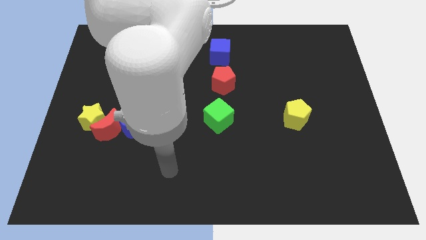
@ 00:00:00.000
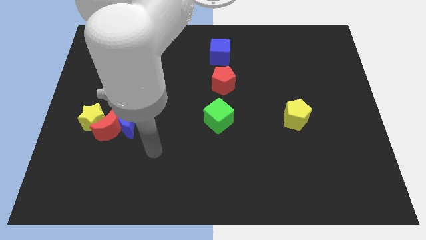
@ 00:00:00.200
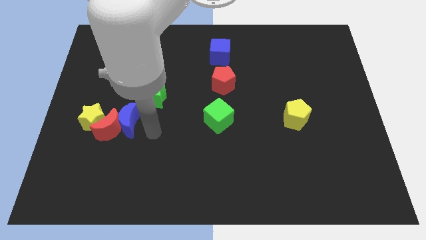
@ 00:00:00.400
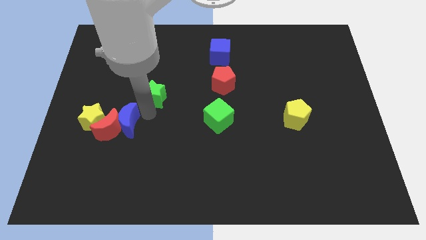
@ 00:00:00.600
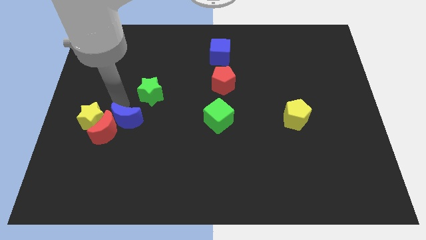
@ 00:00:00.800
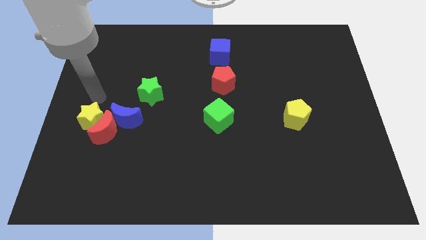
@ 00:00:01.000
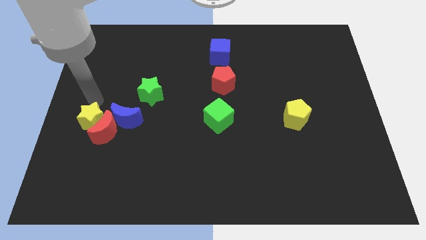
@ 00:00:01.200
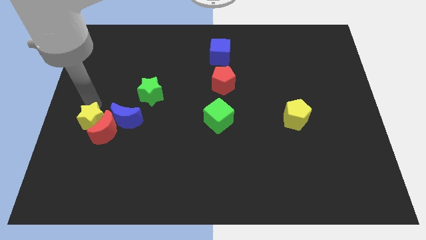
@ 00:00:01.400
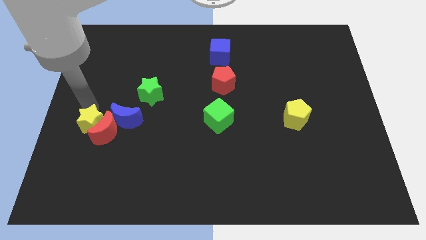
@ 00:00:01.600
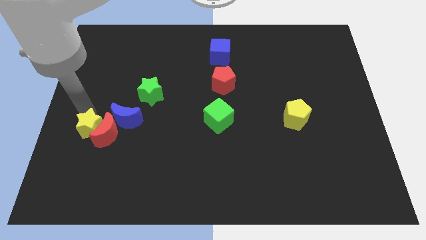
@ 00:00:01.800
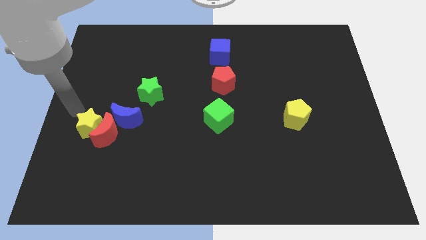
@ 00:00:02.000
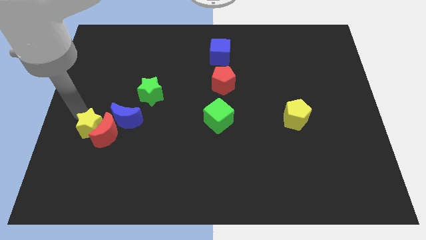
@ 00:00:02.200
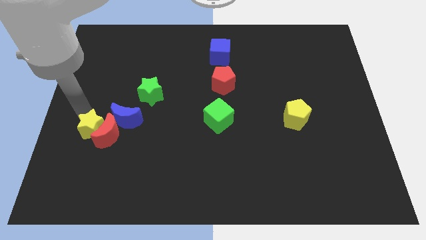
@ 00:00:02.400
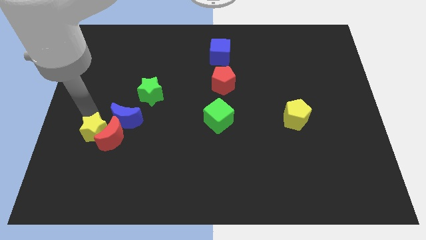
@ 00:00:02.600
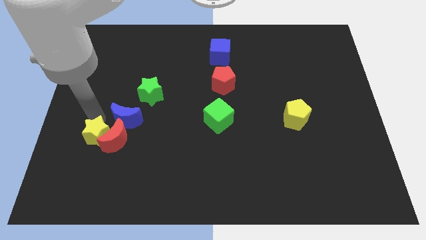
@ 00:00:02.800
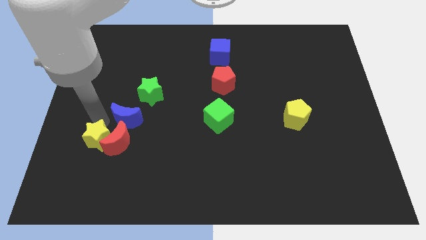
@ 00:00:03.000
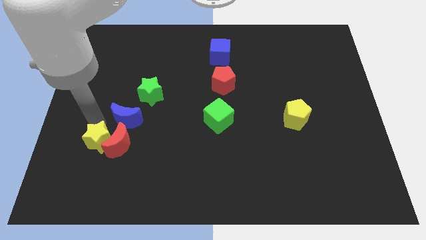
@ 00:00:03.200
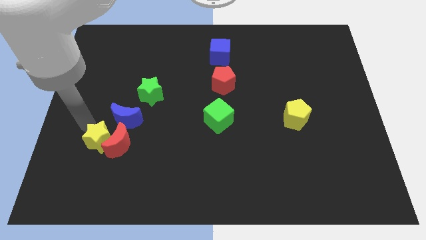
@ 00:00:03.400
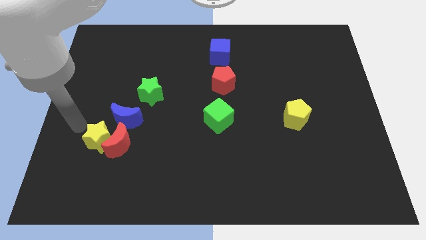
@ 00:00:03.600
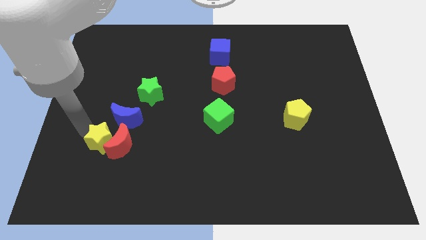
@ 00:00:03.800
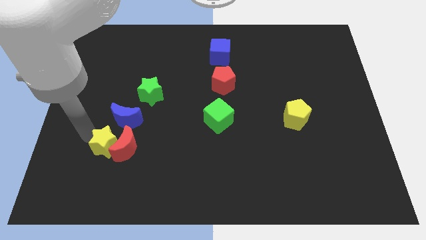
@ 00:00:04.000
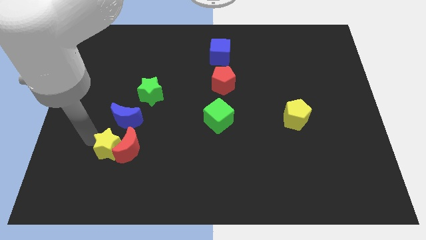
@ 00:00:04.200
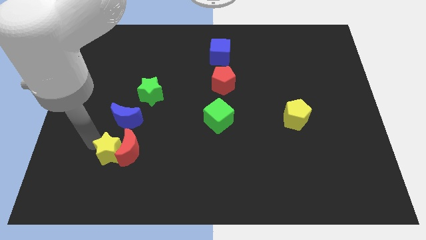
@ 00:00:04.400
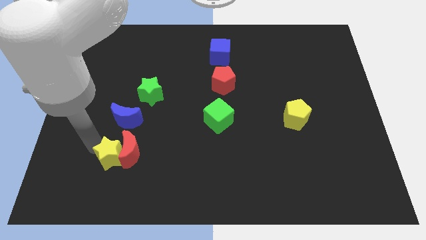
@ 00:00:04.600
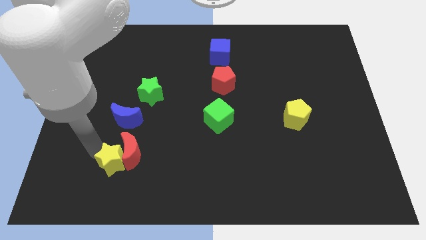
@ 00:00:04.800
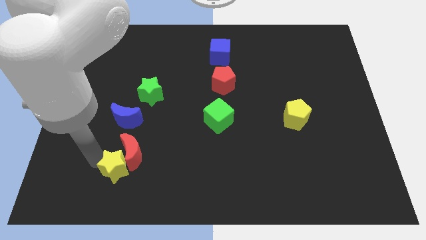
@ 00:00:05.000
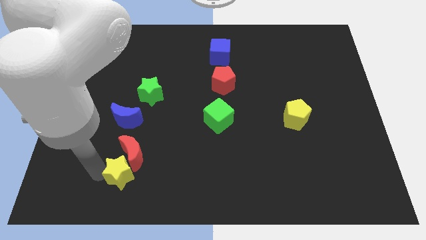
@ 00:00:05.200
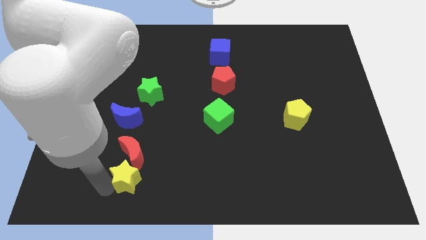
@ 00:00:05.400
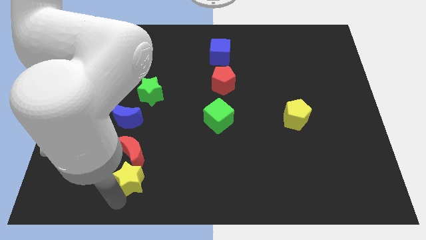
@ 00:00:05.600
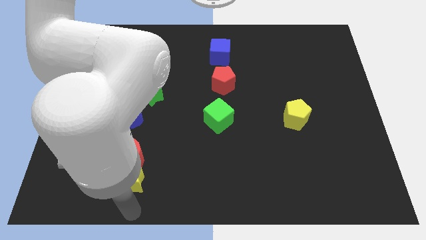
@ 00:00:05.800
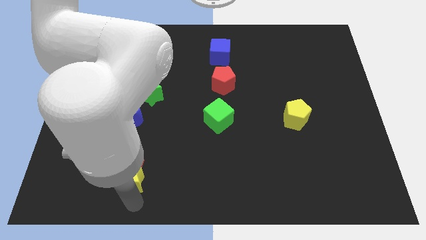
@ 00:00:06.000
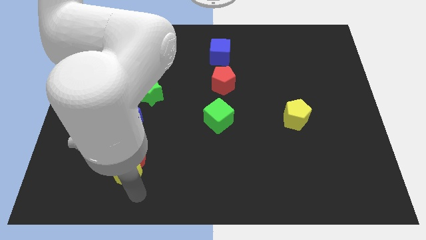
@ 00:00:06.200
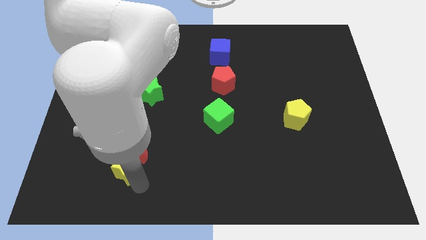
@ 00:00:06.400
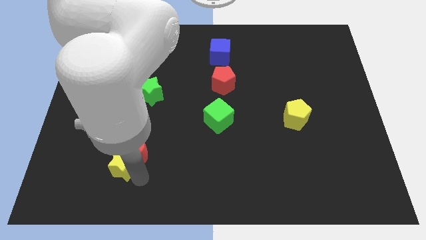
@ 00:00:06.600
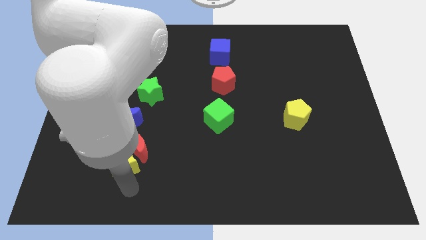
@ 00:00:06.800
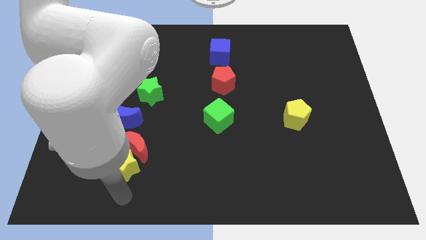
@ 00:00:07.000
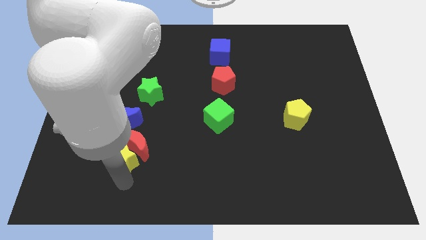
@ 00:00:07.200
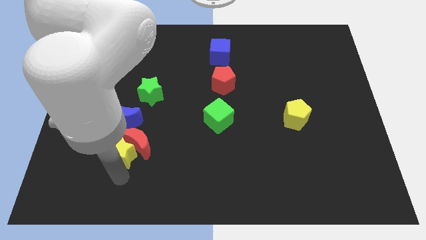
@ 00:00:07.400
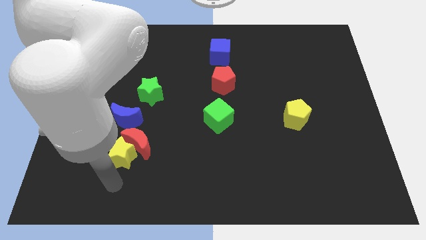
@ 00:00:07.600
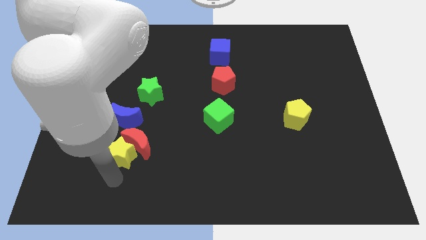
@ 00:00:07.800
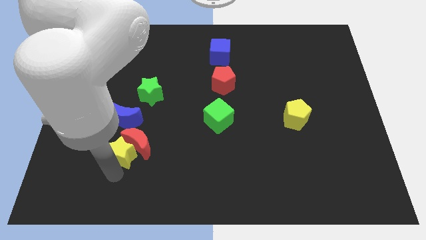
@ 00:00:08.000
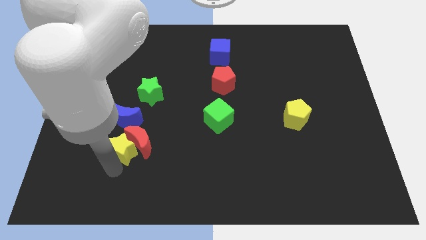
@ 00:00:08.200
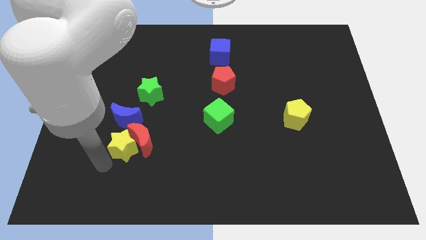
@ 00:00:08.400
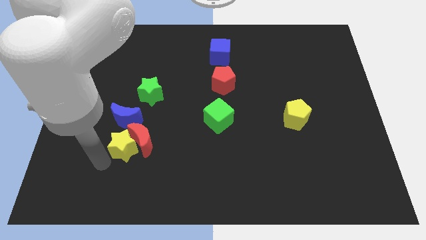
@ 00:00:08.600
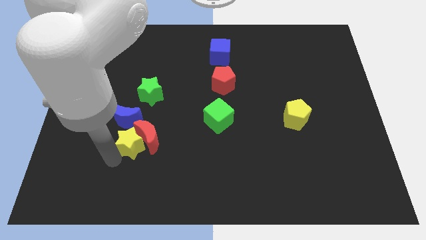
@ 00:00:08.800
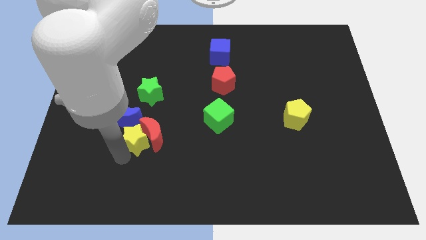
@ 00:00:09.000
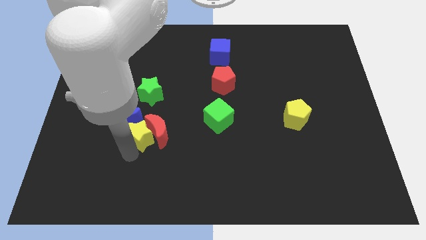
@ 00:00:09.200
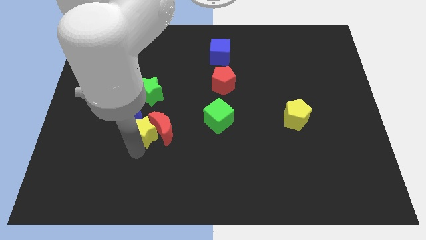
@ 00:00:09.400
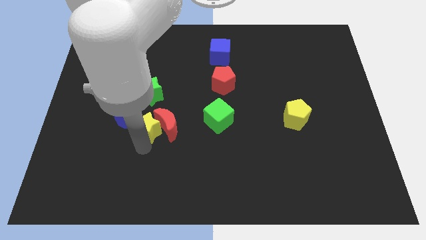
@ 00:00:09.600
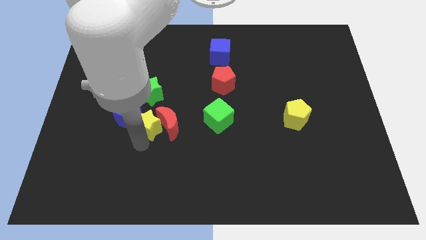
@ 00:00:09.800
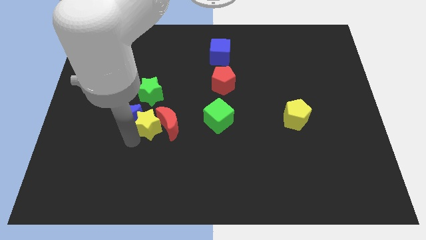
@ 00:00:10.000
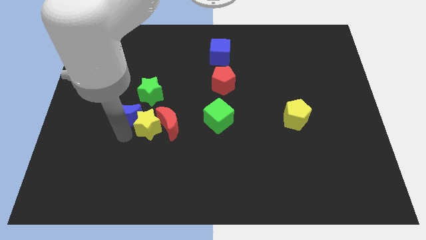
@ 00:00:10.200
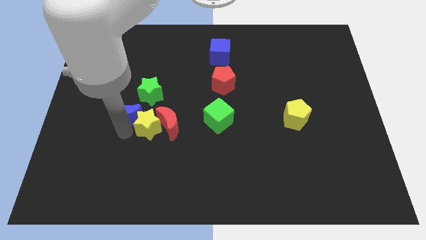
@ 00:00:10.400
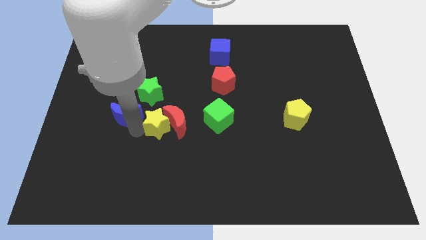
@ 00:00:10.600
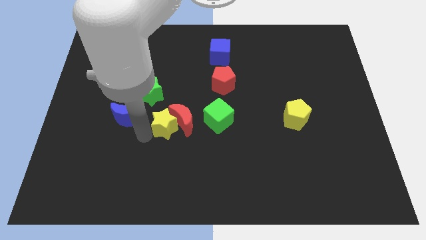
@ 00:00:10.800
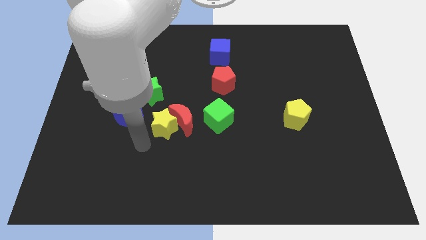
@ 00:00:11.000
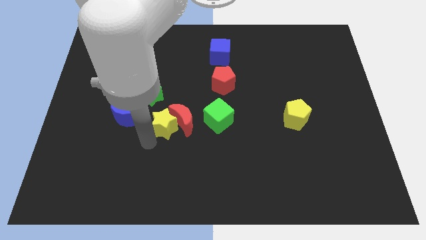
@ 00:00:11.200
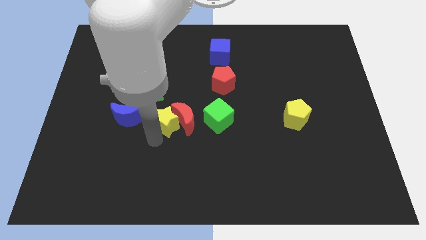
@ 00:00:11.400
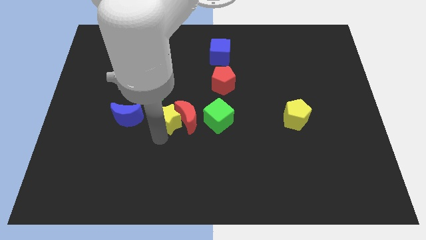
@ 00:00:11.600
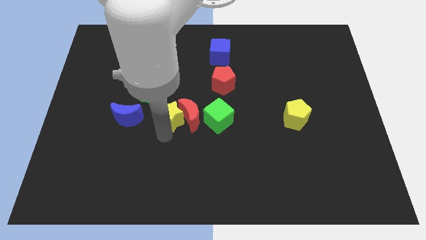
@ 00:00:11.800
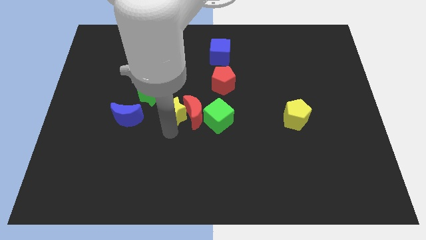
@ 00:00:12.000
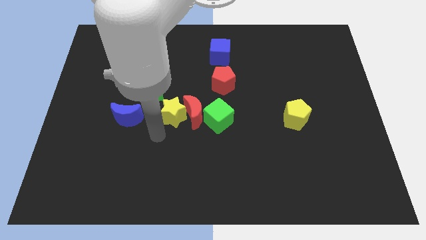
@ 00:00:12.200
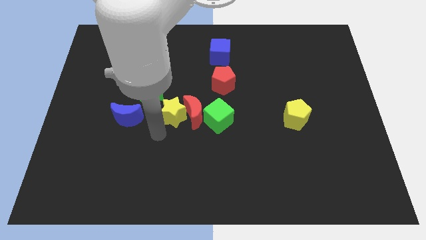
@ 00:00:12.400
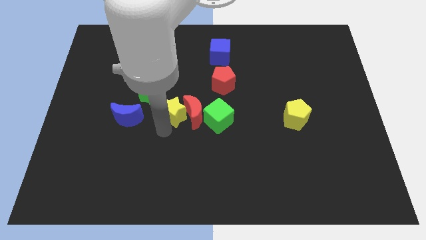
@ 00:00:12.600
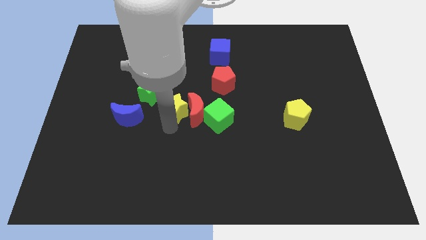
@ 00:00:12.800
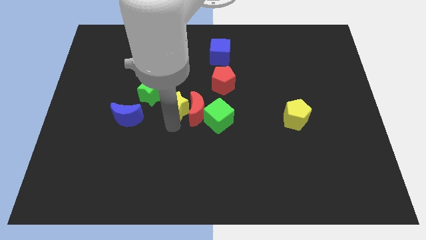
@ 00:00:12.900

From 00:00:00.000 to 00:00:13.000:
push the yellow star right of the green star

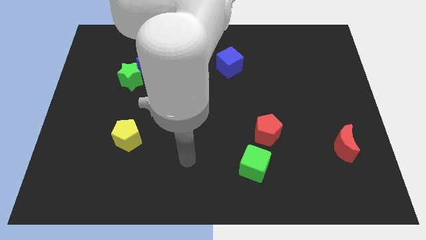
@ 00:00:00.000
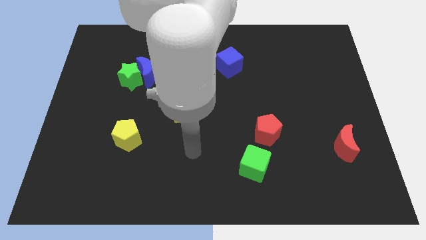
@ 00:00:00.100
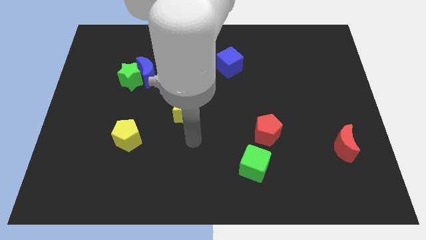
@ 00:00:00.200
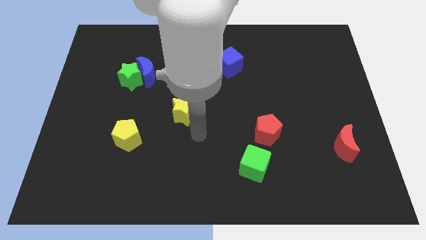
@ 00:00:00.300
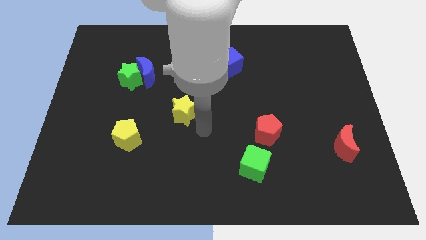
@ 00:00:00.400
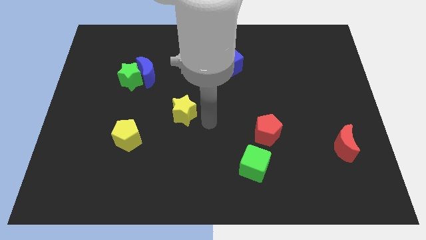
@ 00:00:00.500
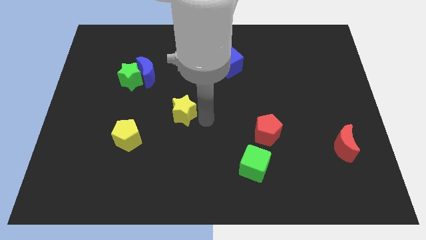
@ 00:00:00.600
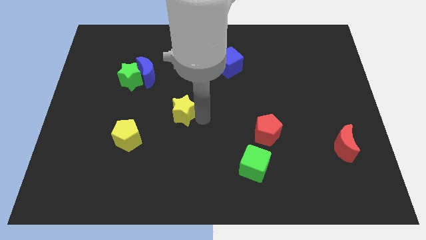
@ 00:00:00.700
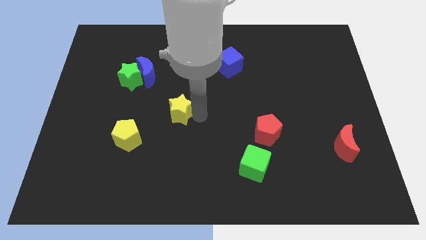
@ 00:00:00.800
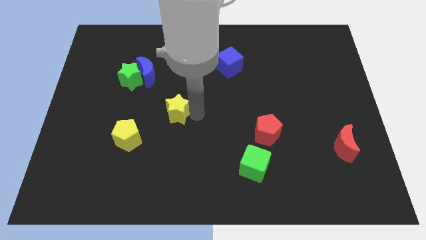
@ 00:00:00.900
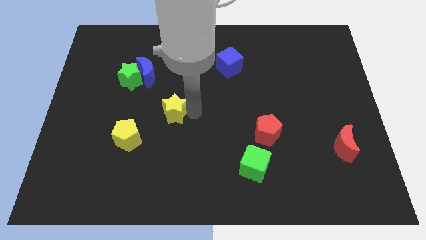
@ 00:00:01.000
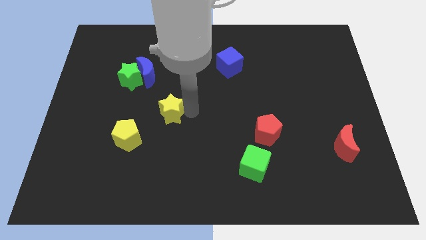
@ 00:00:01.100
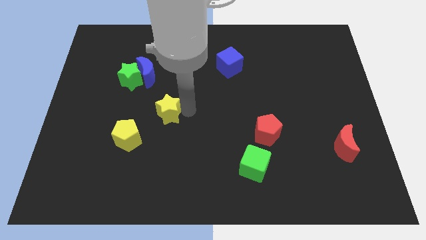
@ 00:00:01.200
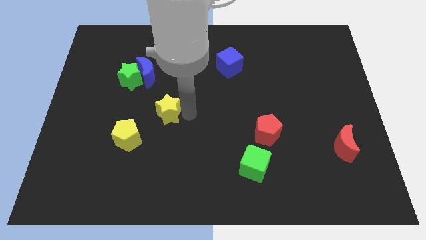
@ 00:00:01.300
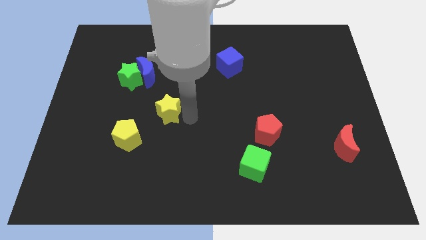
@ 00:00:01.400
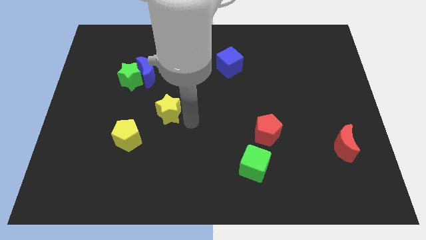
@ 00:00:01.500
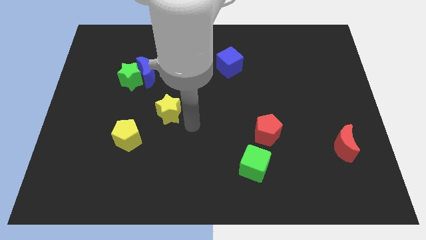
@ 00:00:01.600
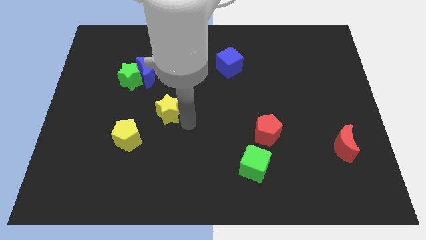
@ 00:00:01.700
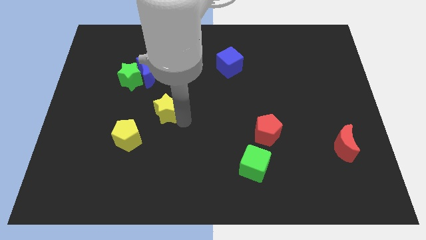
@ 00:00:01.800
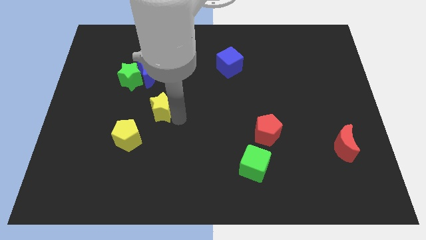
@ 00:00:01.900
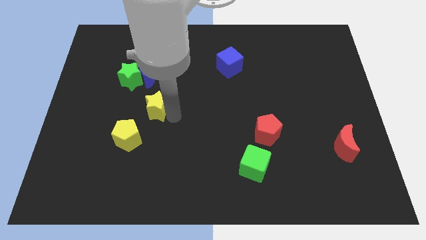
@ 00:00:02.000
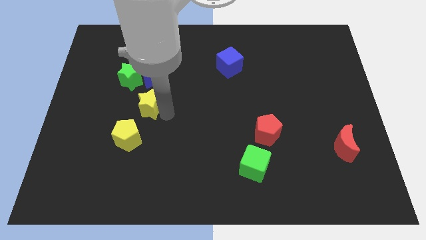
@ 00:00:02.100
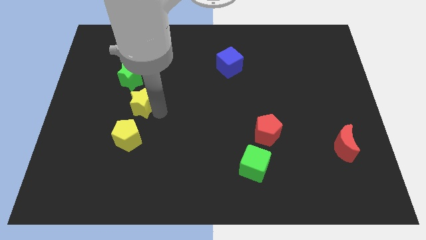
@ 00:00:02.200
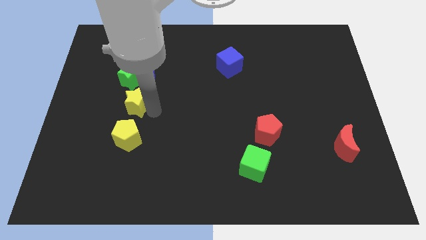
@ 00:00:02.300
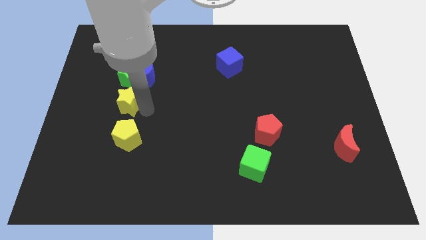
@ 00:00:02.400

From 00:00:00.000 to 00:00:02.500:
put the yellow star to the bottom left of the blue moon
